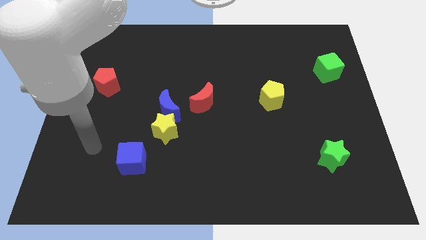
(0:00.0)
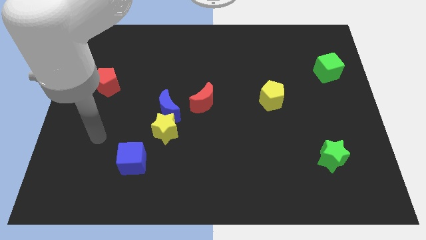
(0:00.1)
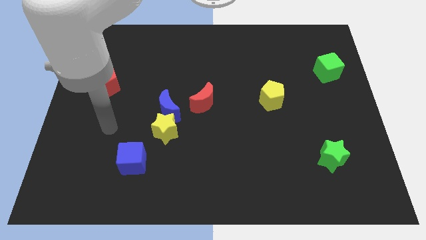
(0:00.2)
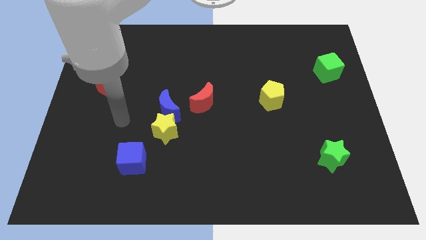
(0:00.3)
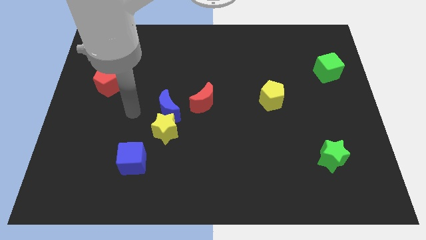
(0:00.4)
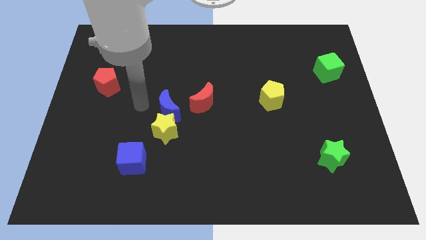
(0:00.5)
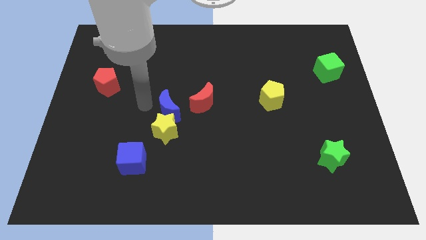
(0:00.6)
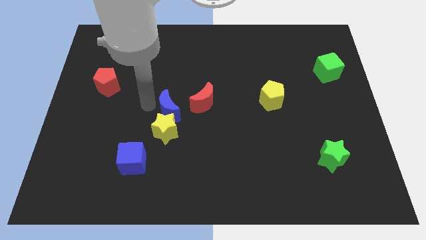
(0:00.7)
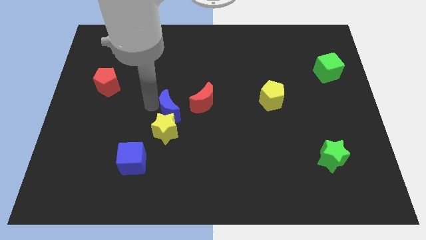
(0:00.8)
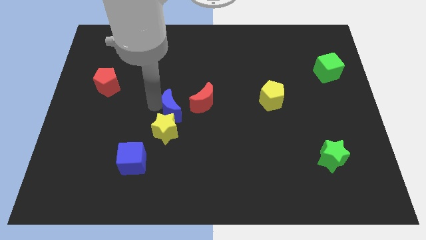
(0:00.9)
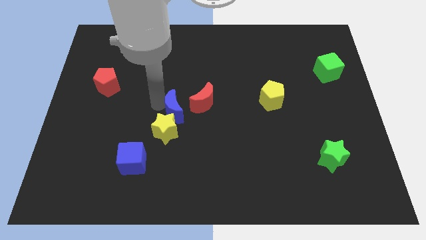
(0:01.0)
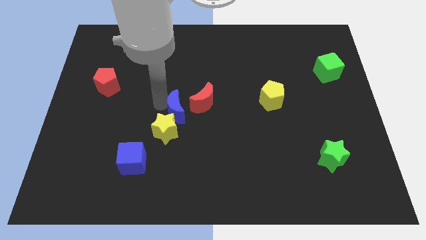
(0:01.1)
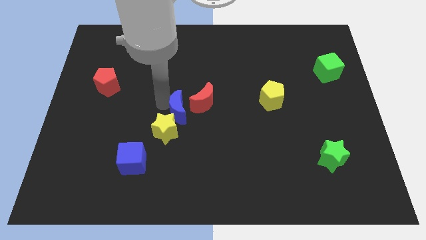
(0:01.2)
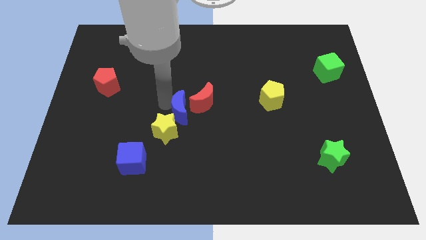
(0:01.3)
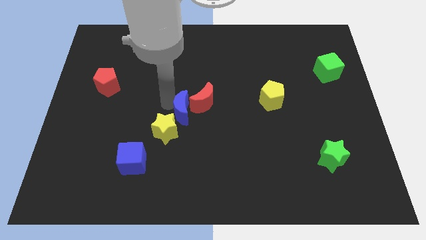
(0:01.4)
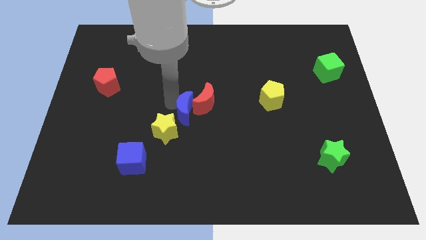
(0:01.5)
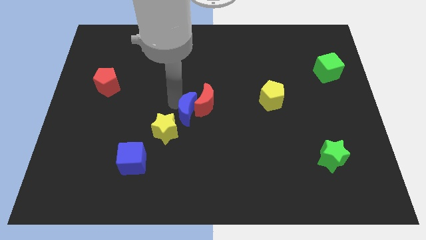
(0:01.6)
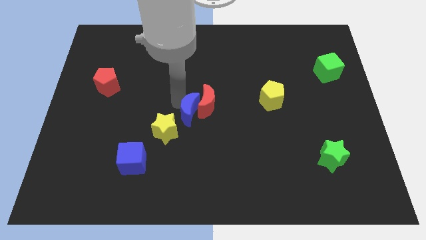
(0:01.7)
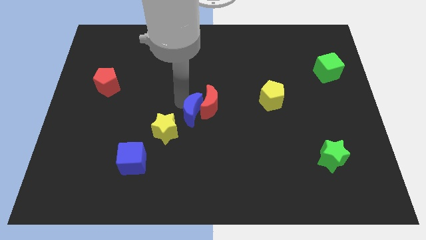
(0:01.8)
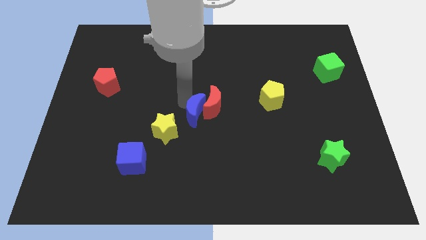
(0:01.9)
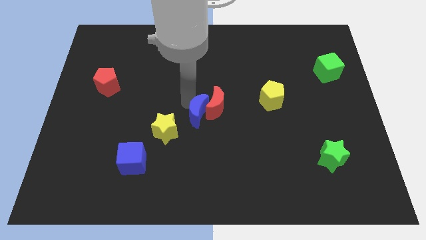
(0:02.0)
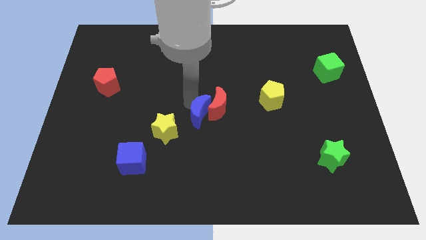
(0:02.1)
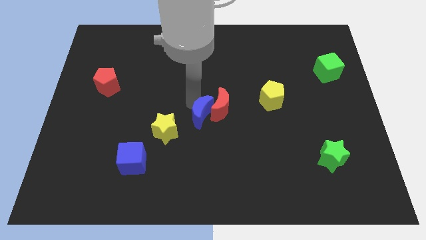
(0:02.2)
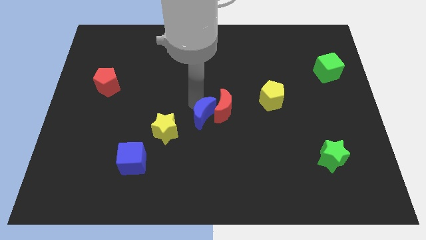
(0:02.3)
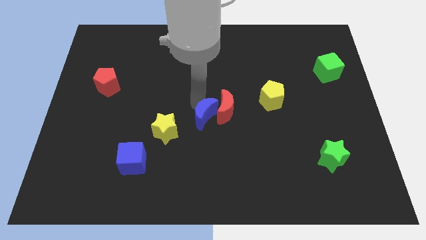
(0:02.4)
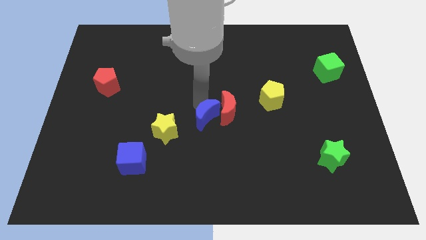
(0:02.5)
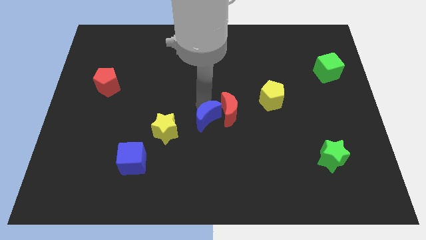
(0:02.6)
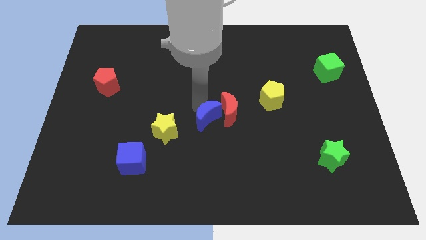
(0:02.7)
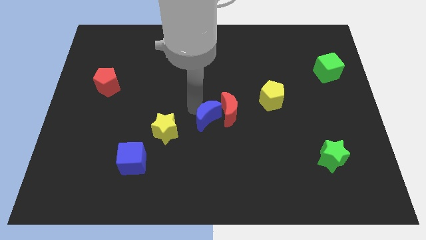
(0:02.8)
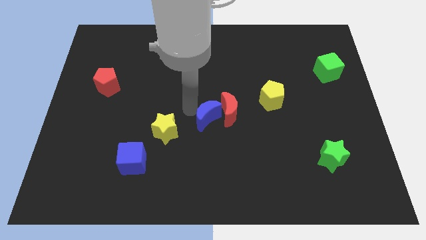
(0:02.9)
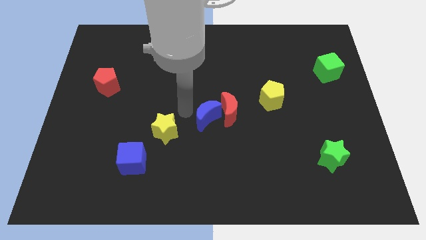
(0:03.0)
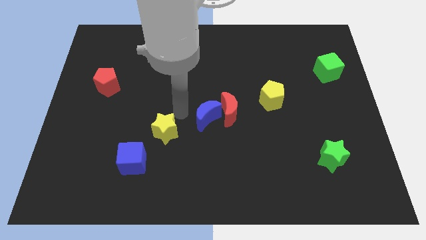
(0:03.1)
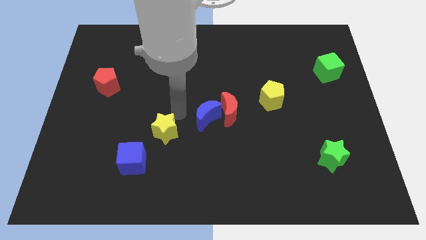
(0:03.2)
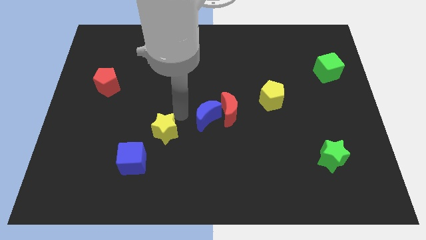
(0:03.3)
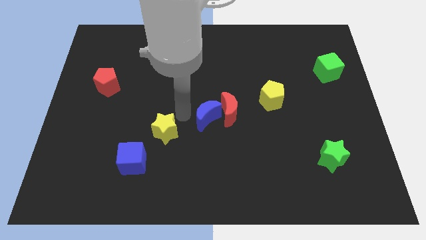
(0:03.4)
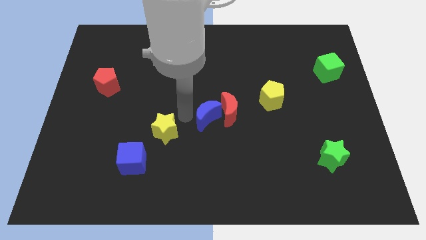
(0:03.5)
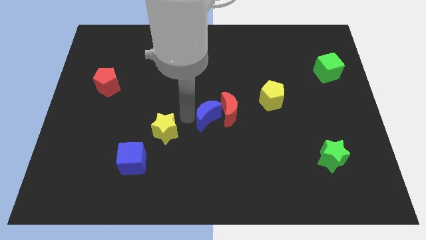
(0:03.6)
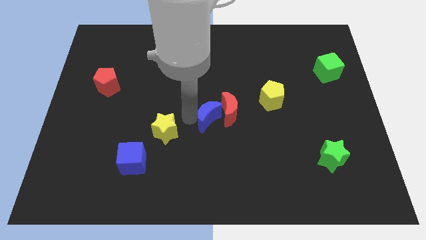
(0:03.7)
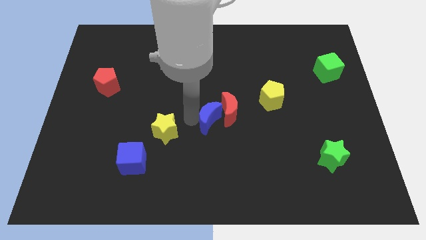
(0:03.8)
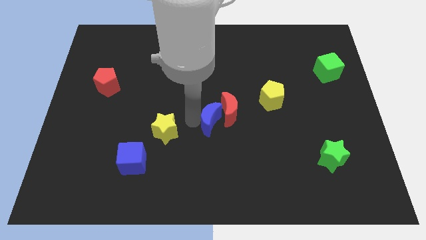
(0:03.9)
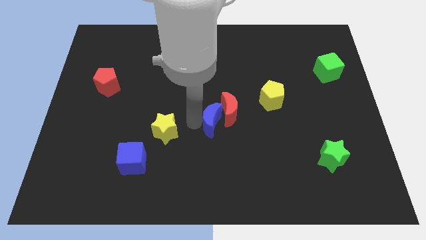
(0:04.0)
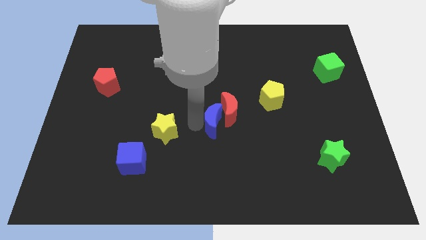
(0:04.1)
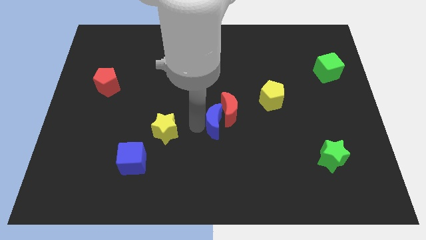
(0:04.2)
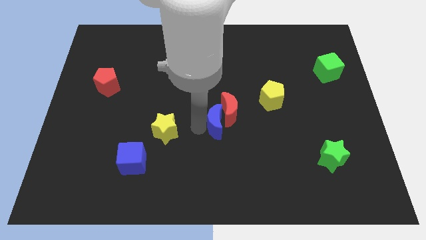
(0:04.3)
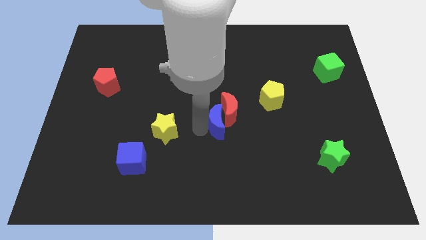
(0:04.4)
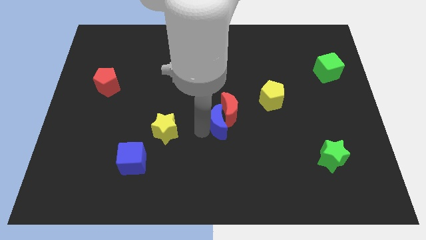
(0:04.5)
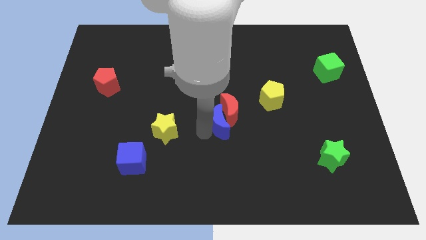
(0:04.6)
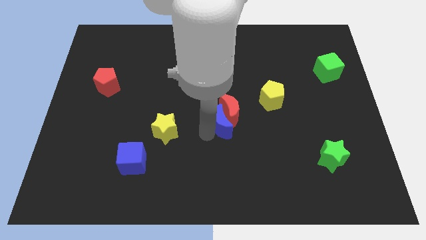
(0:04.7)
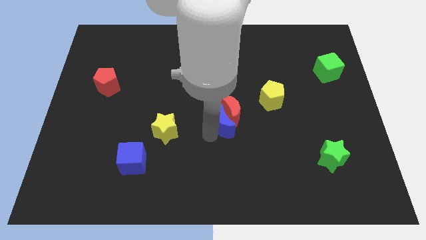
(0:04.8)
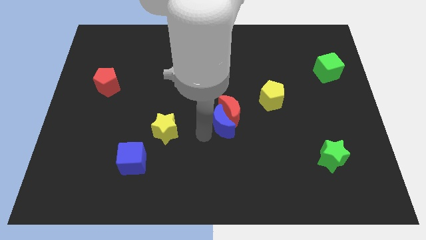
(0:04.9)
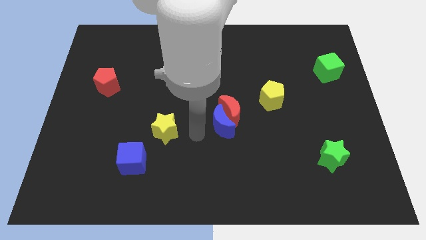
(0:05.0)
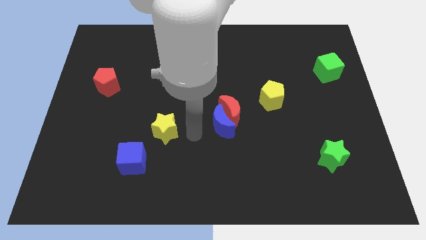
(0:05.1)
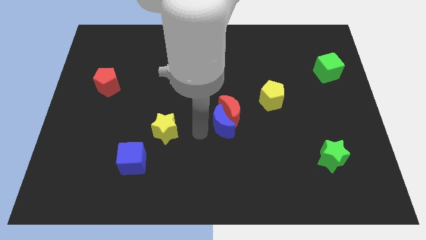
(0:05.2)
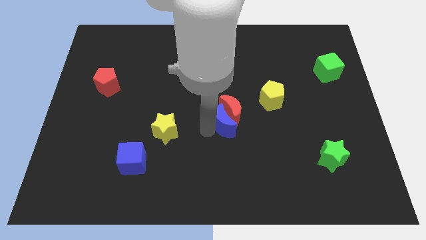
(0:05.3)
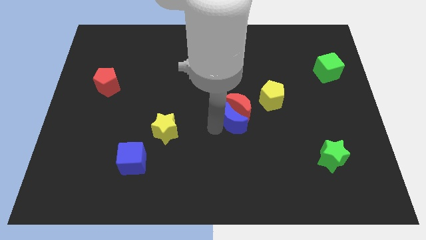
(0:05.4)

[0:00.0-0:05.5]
slide the blue moon diagonally down and to the left of the yellow pentagon
